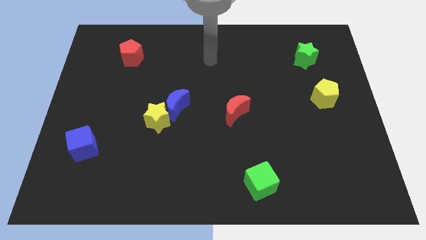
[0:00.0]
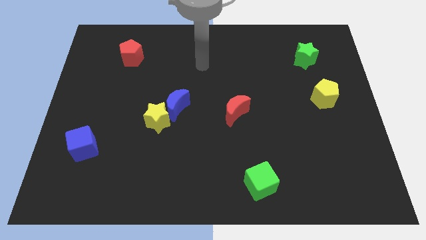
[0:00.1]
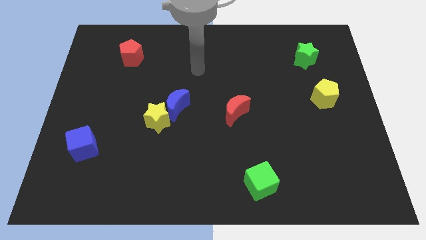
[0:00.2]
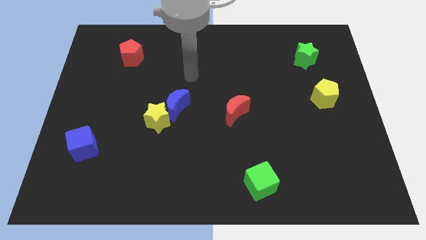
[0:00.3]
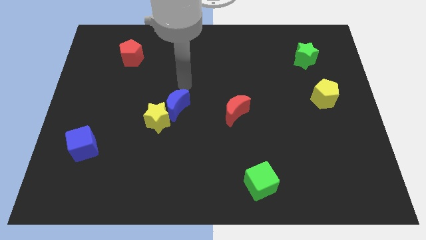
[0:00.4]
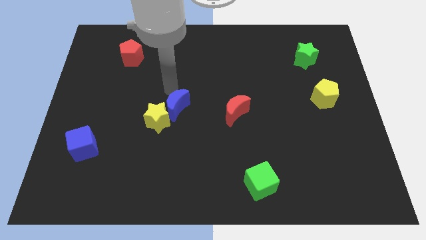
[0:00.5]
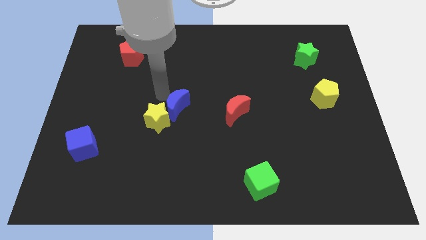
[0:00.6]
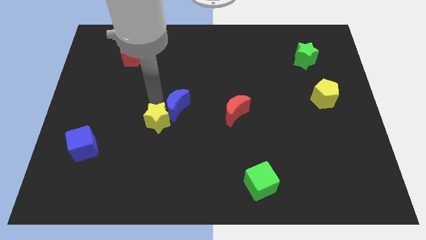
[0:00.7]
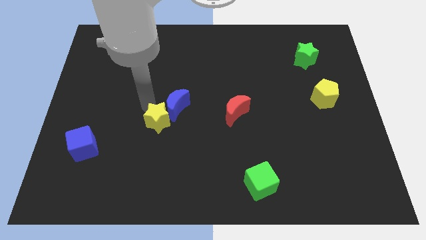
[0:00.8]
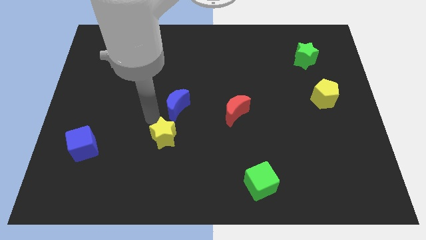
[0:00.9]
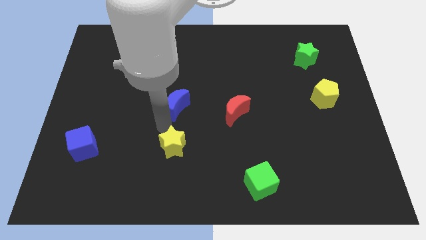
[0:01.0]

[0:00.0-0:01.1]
move the blue moon away from the yellow star

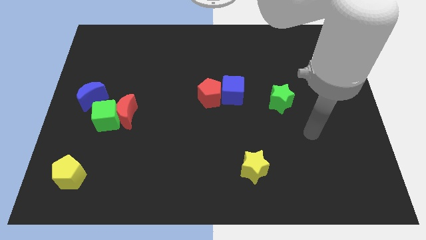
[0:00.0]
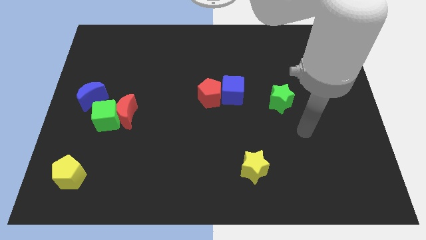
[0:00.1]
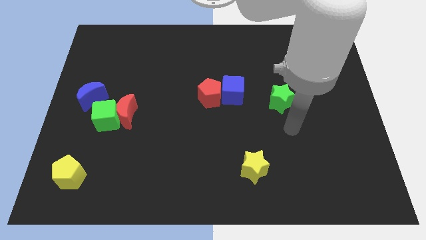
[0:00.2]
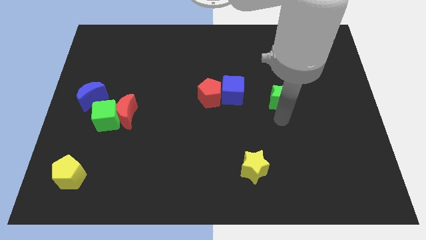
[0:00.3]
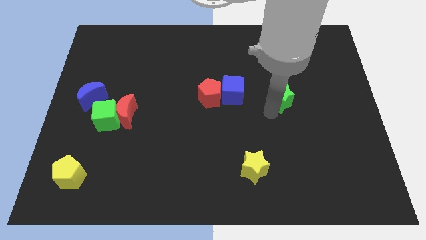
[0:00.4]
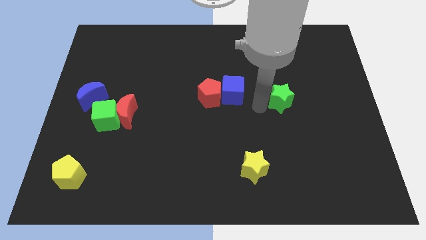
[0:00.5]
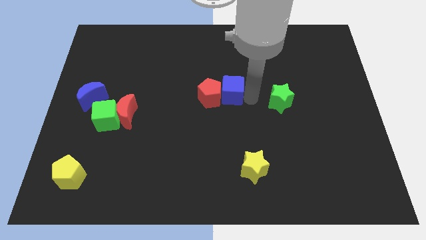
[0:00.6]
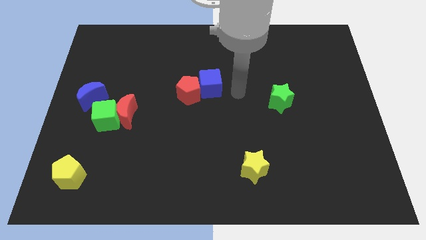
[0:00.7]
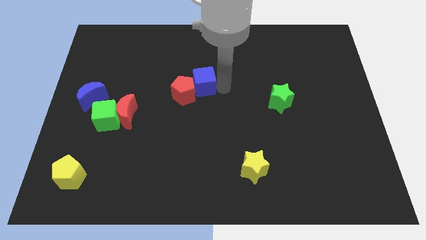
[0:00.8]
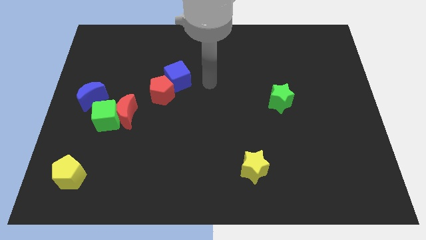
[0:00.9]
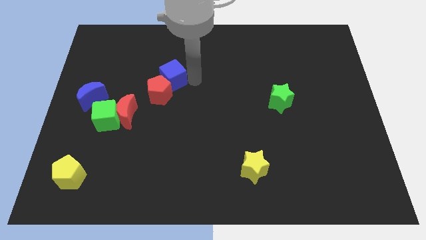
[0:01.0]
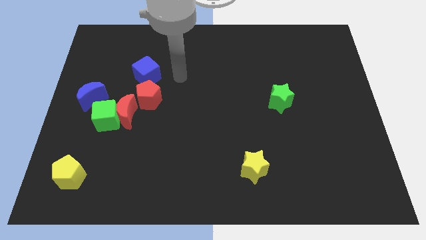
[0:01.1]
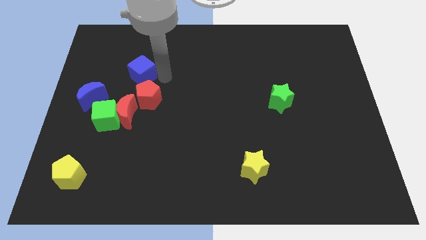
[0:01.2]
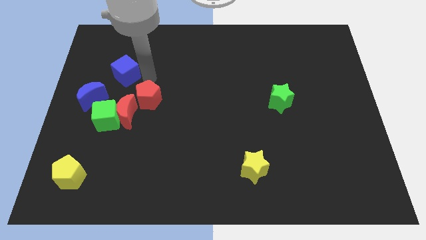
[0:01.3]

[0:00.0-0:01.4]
separate the red pentagon from the blue cube

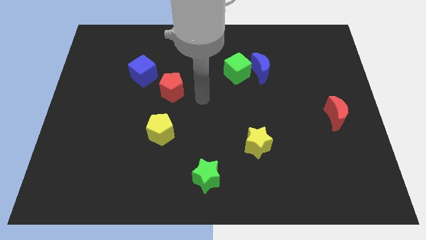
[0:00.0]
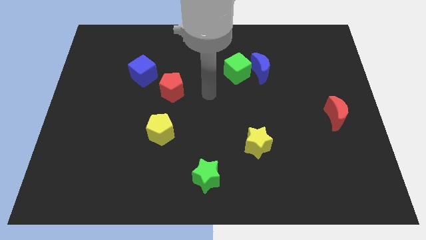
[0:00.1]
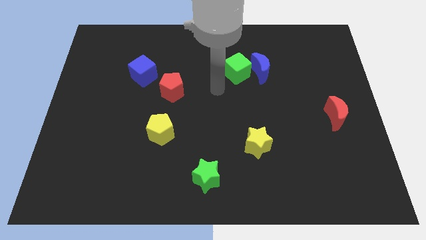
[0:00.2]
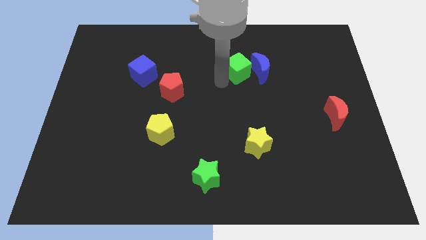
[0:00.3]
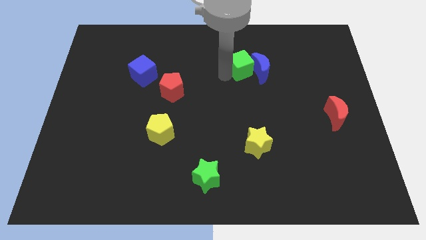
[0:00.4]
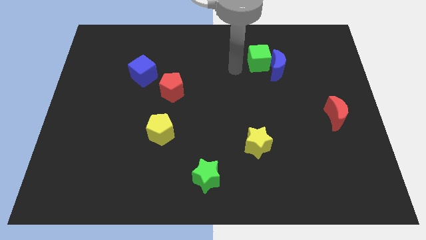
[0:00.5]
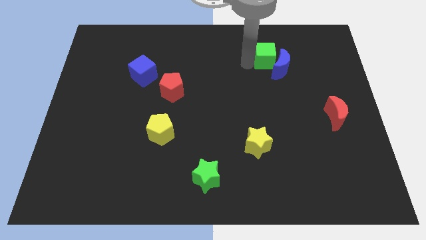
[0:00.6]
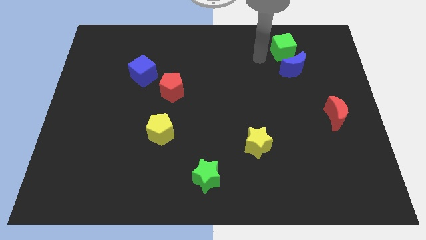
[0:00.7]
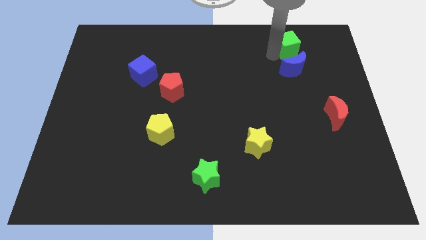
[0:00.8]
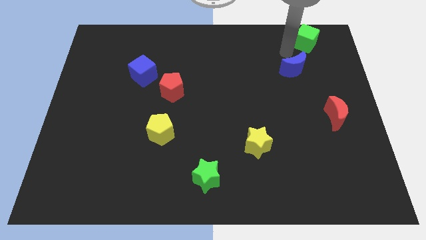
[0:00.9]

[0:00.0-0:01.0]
pull the blue moon apart from the green cube

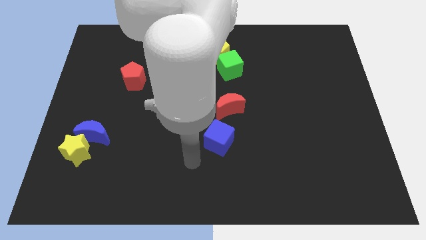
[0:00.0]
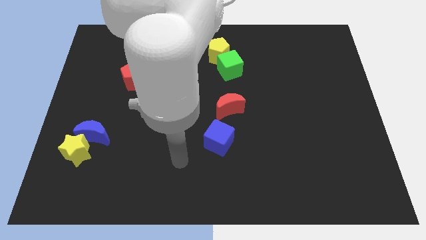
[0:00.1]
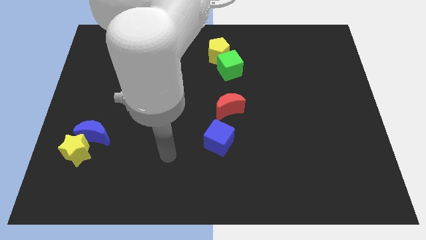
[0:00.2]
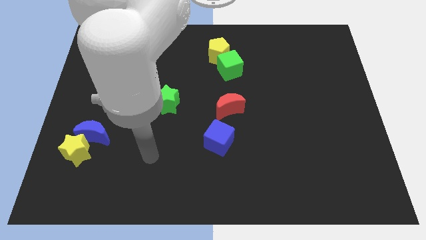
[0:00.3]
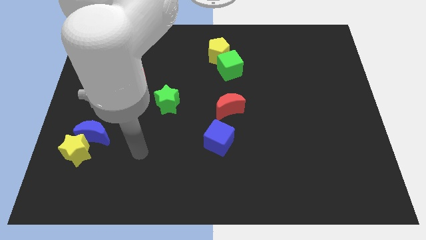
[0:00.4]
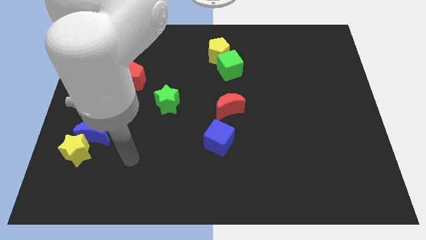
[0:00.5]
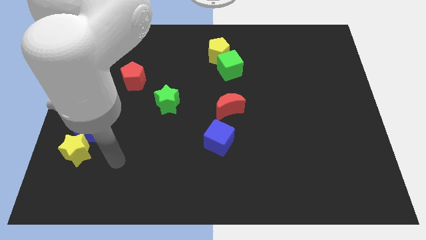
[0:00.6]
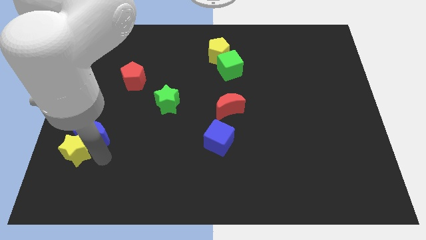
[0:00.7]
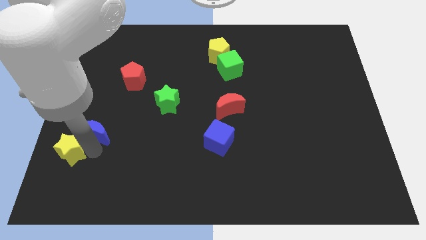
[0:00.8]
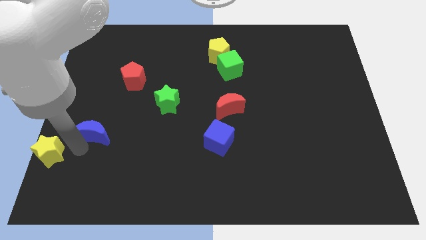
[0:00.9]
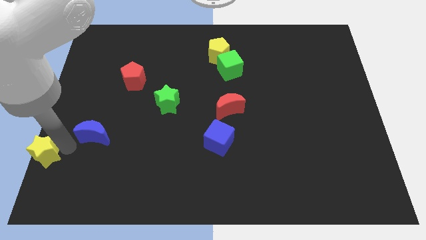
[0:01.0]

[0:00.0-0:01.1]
pull the blue moon apart from the yellow star

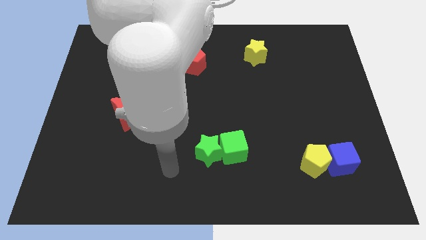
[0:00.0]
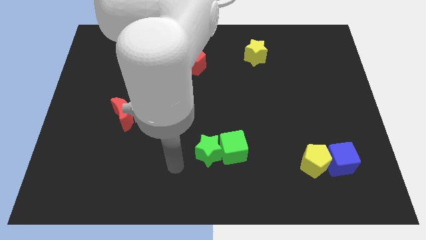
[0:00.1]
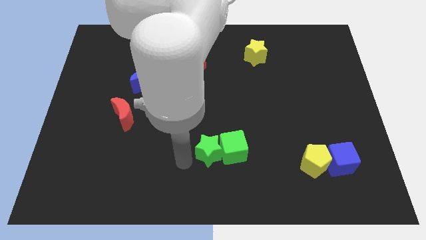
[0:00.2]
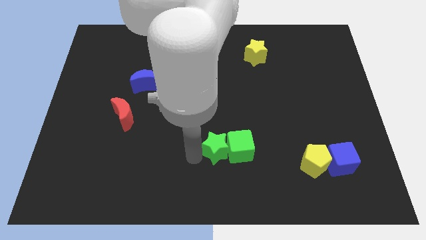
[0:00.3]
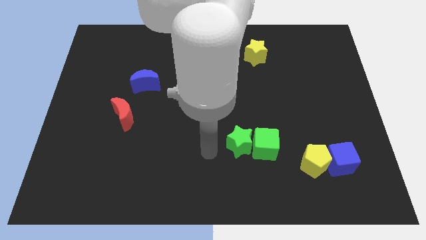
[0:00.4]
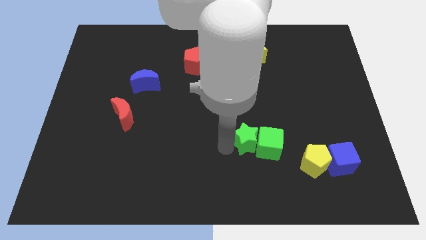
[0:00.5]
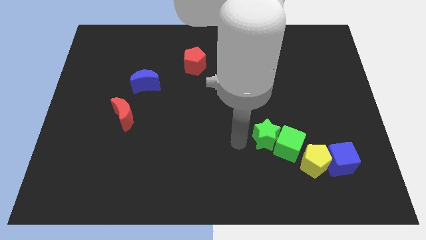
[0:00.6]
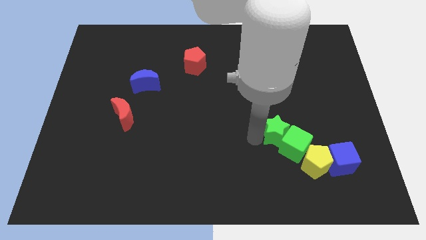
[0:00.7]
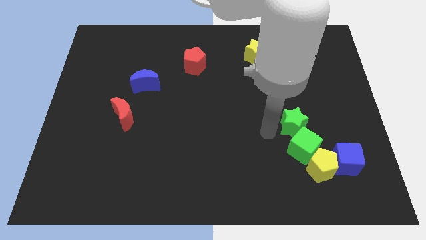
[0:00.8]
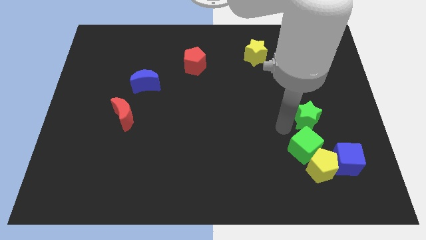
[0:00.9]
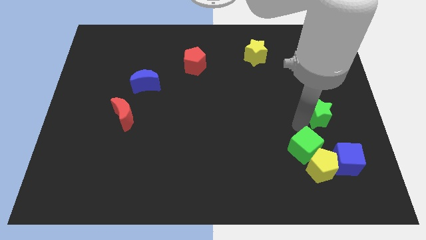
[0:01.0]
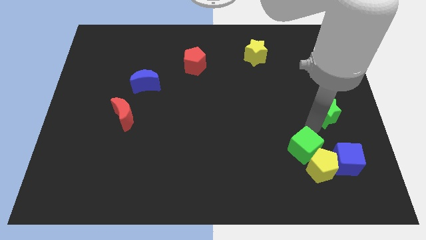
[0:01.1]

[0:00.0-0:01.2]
move the green cube away from the green star

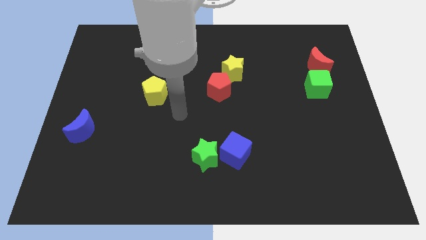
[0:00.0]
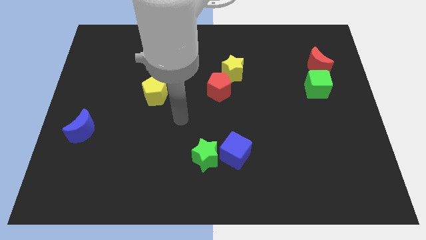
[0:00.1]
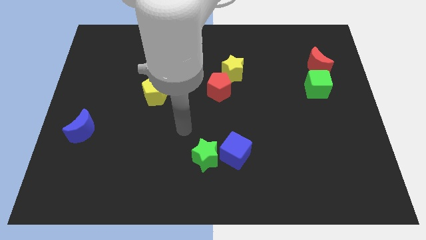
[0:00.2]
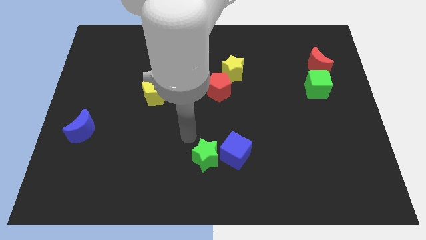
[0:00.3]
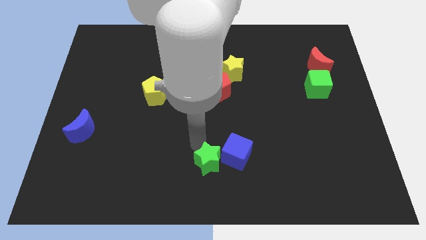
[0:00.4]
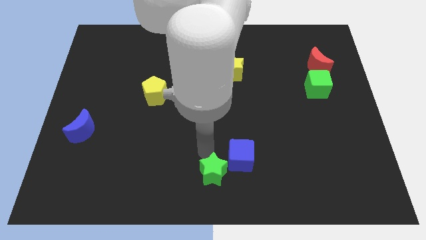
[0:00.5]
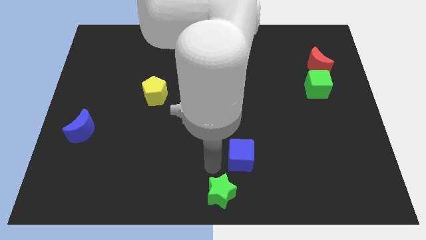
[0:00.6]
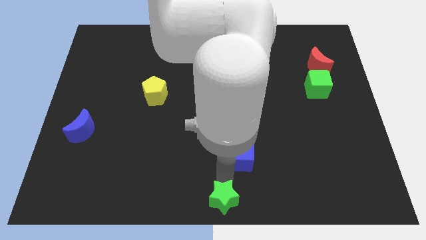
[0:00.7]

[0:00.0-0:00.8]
pull the blue cube apart from the green star

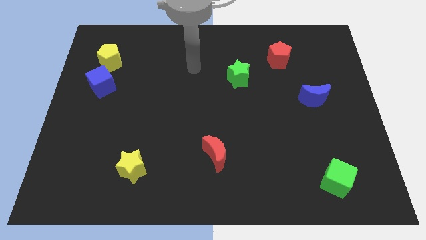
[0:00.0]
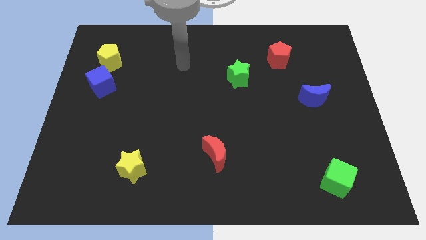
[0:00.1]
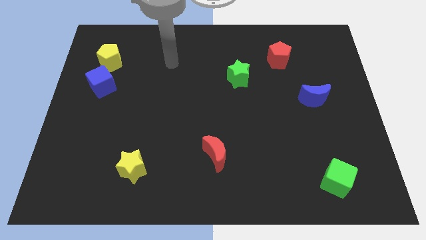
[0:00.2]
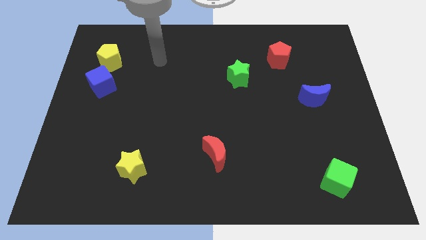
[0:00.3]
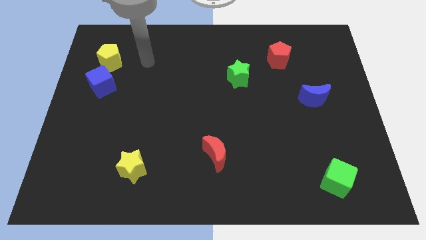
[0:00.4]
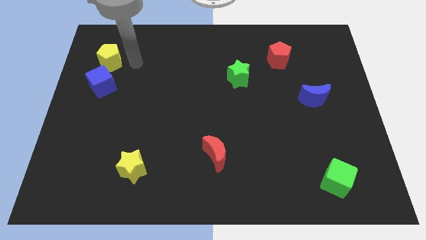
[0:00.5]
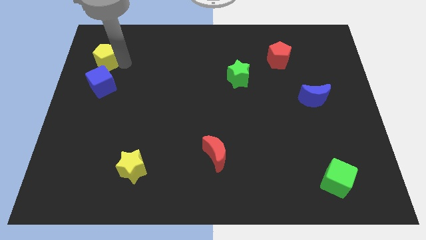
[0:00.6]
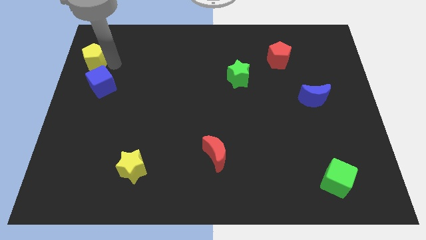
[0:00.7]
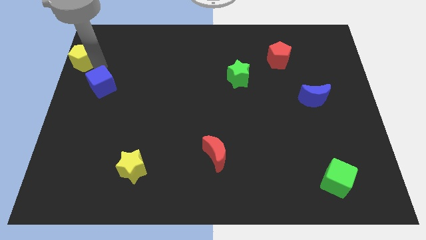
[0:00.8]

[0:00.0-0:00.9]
move the blue cube away from the yellow pentagon

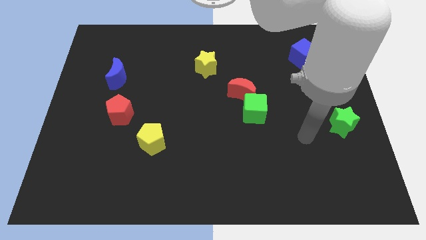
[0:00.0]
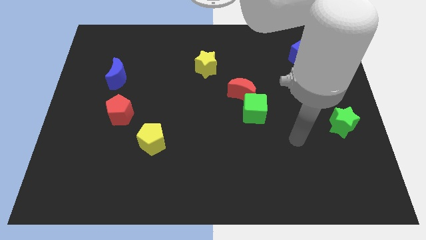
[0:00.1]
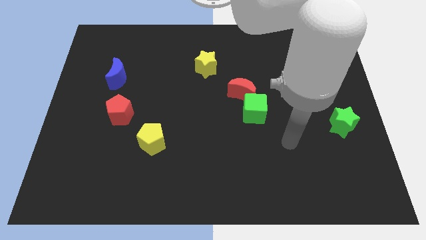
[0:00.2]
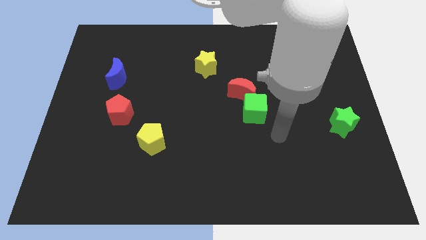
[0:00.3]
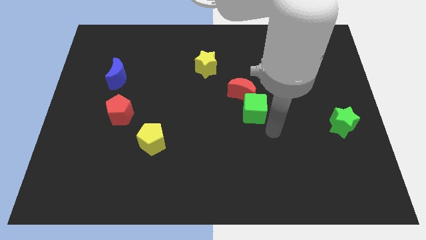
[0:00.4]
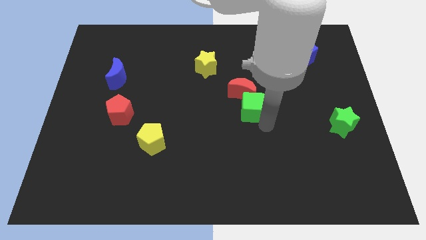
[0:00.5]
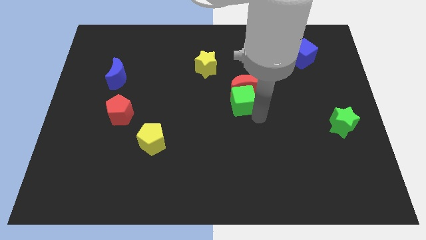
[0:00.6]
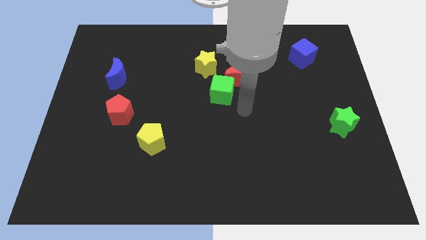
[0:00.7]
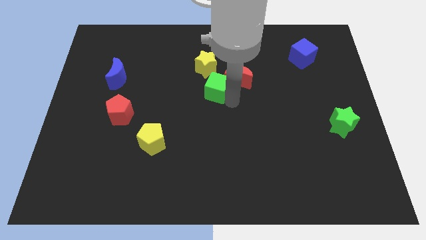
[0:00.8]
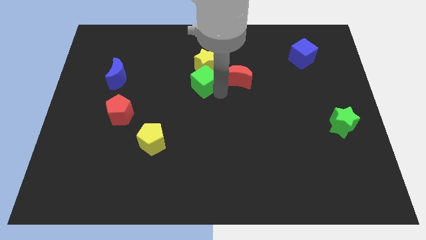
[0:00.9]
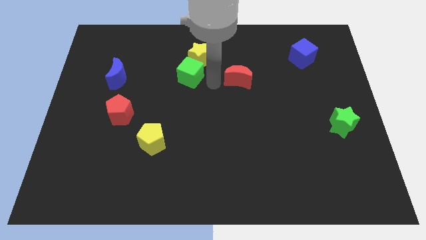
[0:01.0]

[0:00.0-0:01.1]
separate the red moon from the green cube

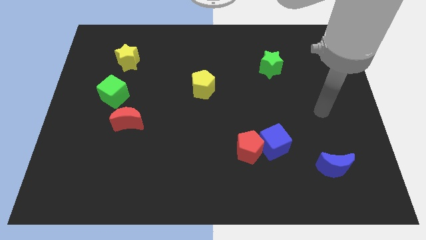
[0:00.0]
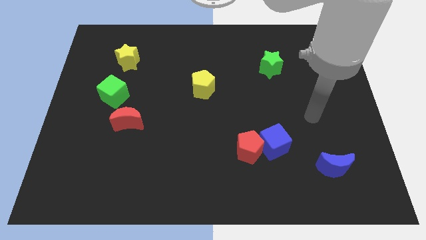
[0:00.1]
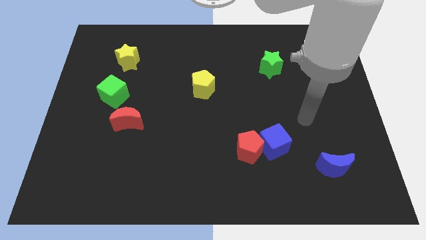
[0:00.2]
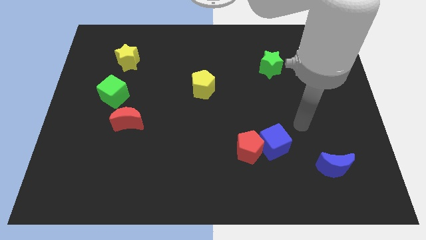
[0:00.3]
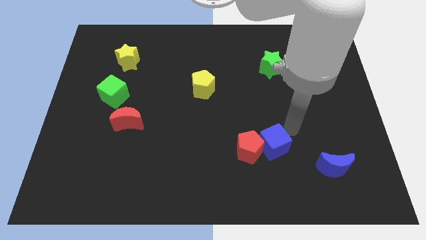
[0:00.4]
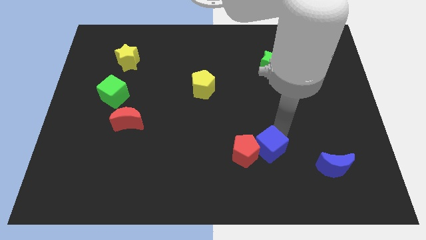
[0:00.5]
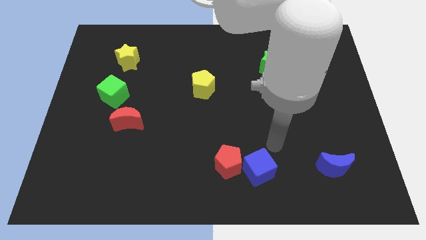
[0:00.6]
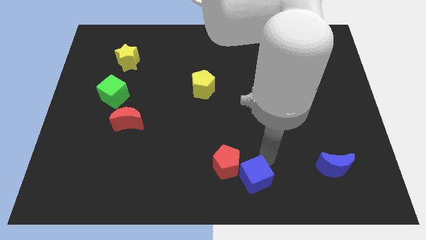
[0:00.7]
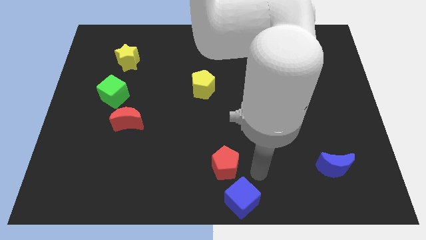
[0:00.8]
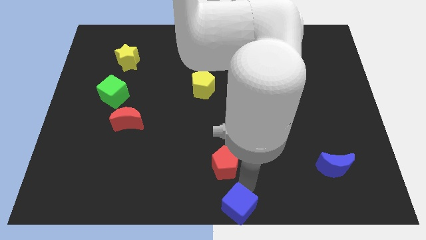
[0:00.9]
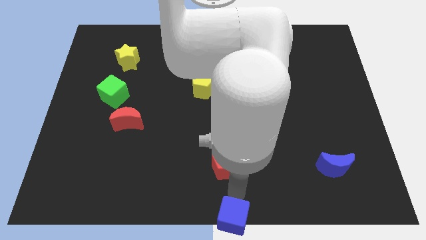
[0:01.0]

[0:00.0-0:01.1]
pull the red pentagon apart from the blue cube
